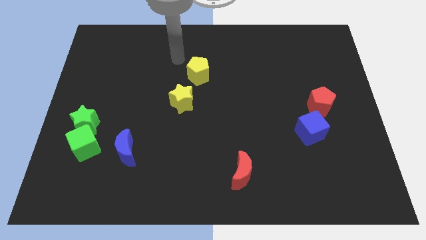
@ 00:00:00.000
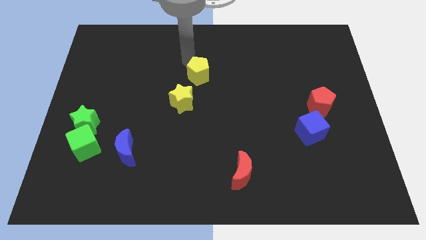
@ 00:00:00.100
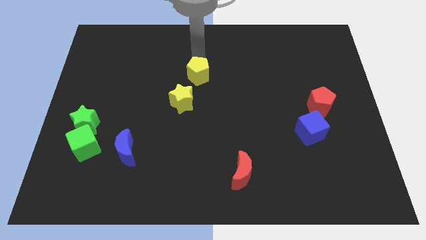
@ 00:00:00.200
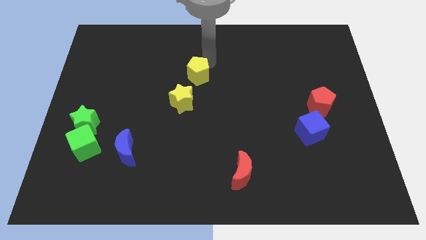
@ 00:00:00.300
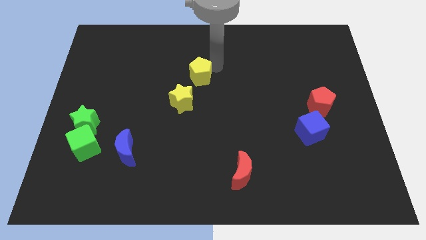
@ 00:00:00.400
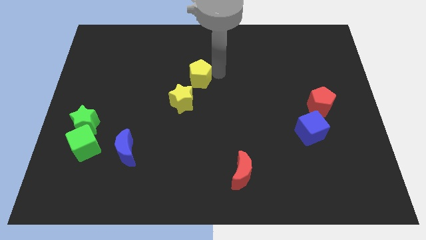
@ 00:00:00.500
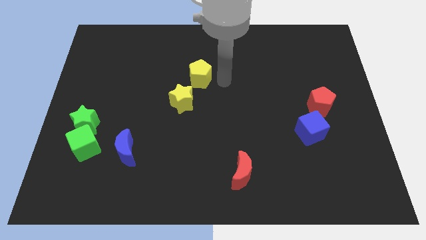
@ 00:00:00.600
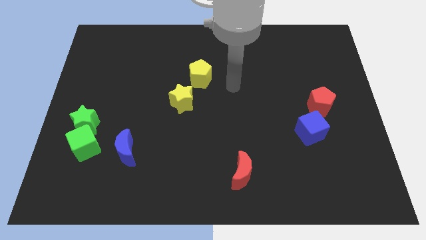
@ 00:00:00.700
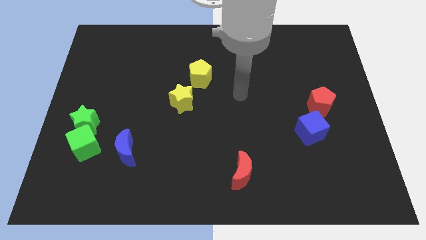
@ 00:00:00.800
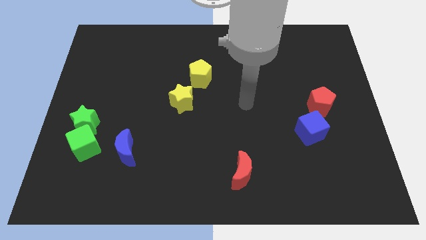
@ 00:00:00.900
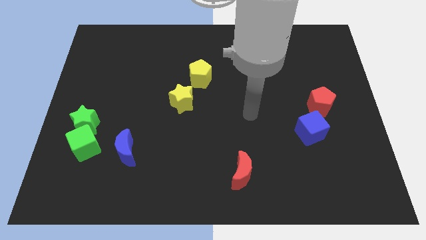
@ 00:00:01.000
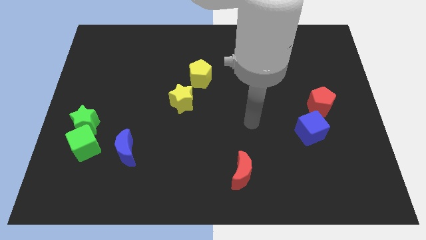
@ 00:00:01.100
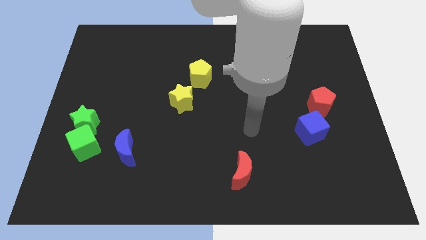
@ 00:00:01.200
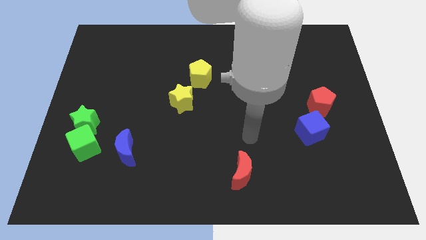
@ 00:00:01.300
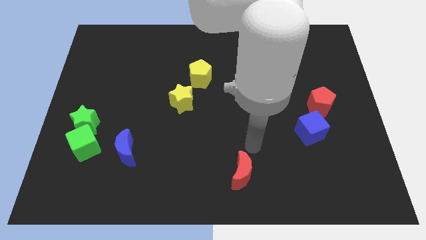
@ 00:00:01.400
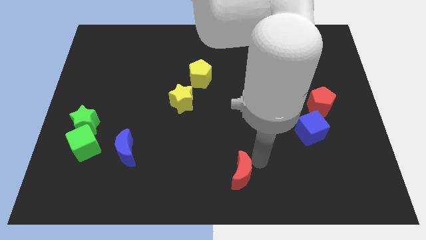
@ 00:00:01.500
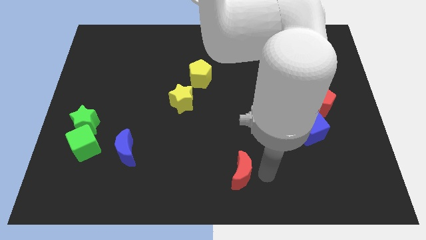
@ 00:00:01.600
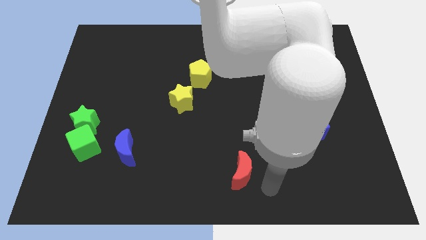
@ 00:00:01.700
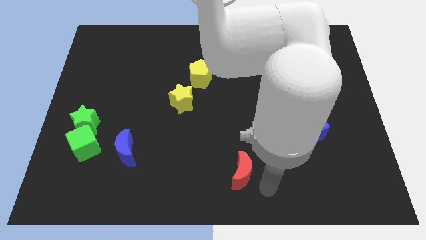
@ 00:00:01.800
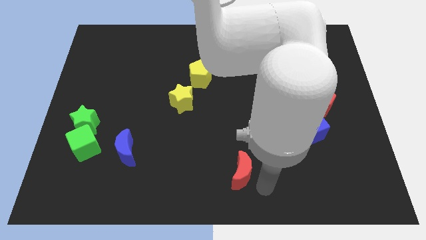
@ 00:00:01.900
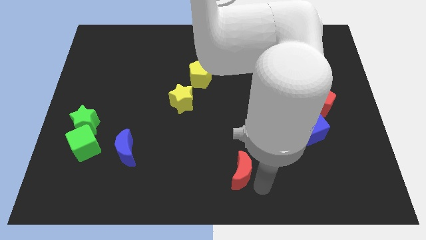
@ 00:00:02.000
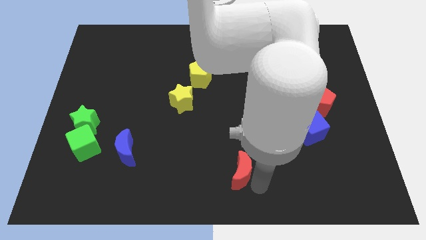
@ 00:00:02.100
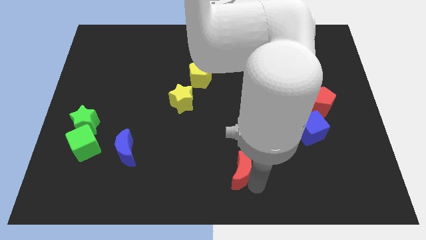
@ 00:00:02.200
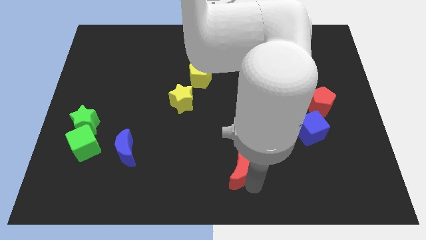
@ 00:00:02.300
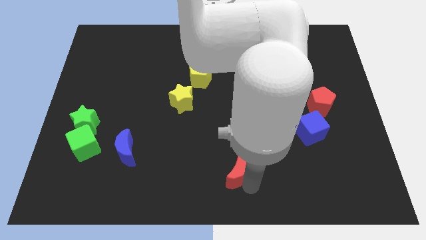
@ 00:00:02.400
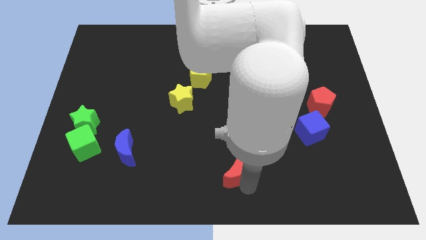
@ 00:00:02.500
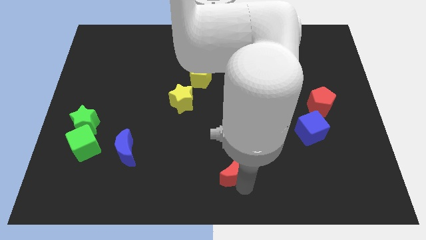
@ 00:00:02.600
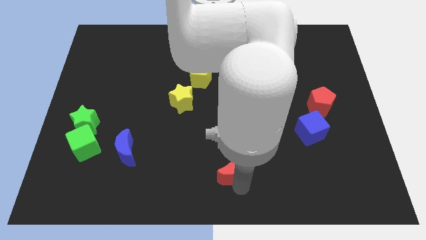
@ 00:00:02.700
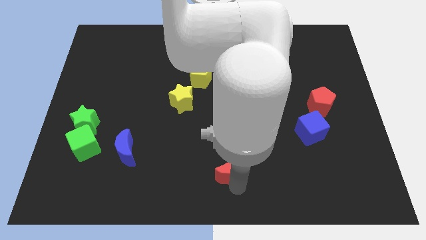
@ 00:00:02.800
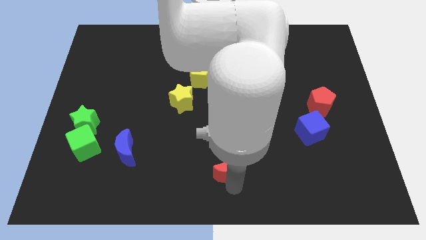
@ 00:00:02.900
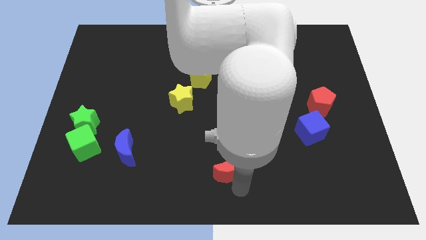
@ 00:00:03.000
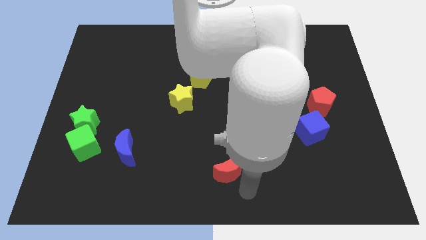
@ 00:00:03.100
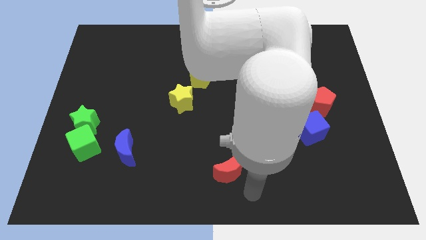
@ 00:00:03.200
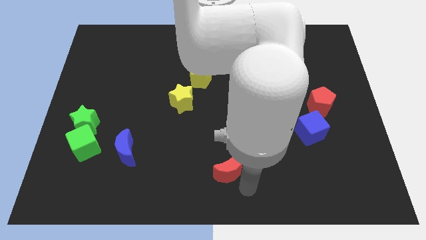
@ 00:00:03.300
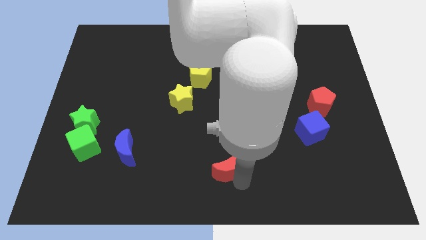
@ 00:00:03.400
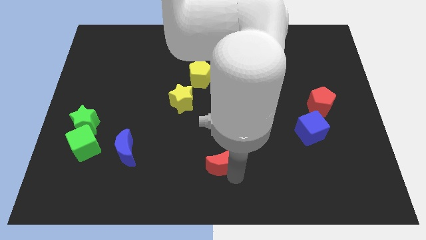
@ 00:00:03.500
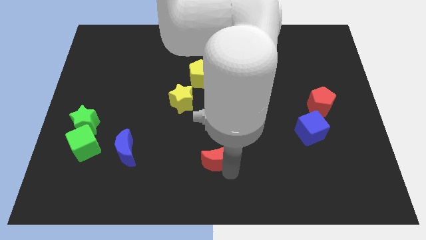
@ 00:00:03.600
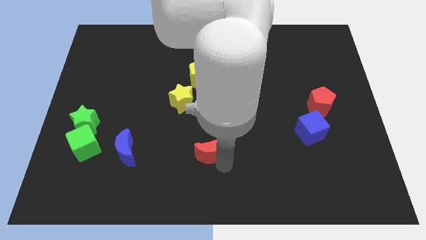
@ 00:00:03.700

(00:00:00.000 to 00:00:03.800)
move the red moon up and then left a bit

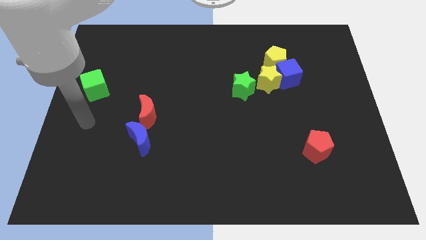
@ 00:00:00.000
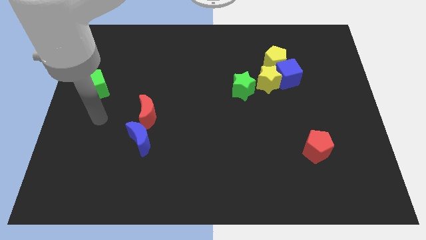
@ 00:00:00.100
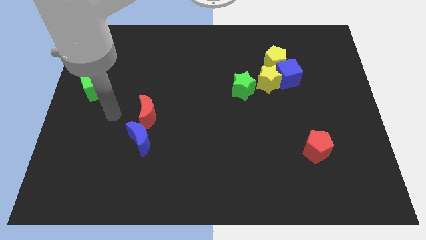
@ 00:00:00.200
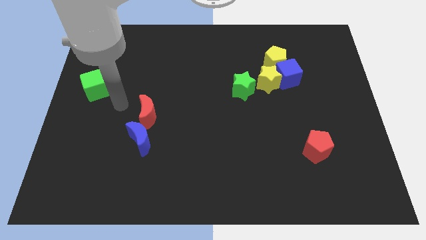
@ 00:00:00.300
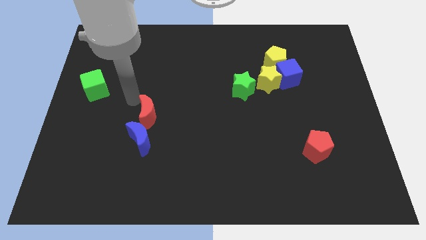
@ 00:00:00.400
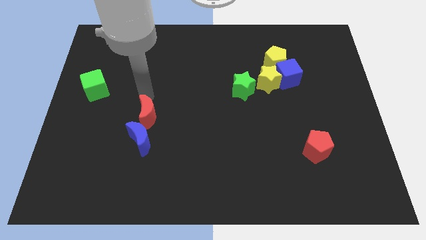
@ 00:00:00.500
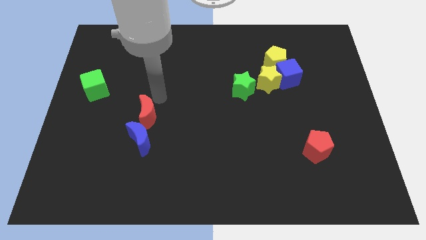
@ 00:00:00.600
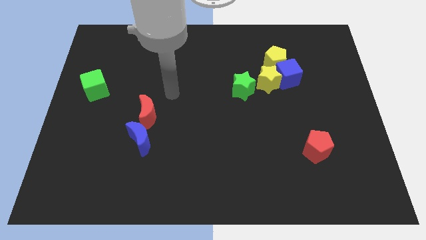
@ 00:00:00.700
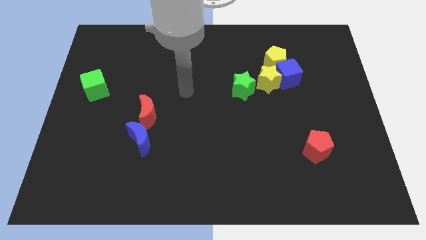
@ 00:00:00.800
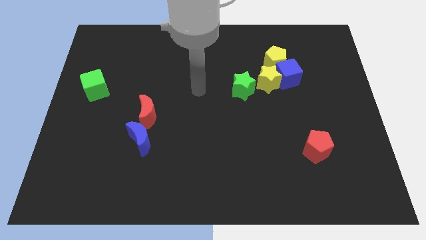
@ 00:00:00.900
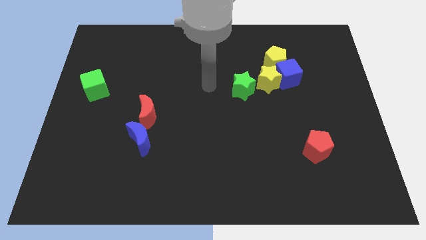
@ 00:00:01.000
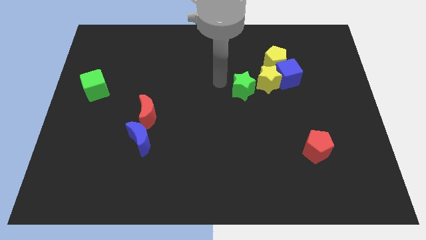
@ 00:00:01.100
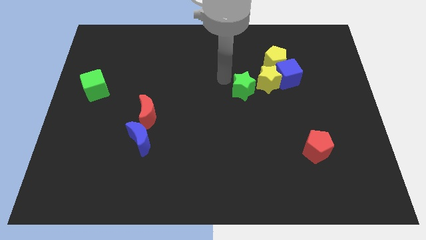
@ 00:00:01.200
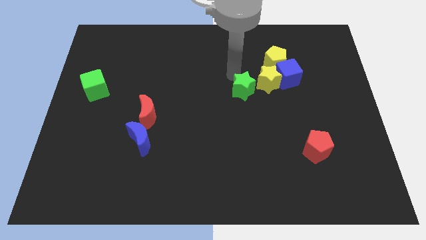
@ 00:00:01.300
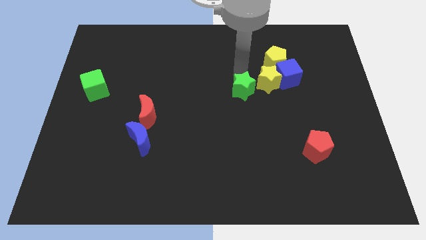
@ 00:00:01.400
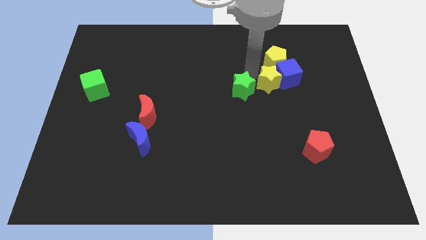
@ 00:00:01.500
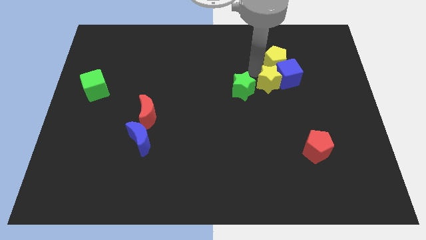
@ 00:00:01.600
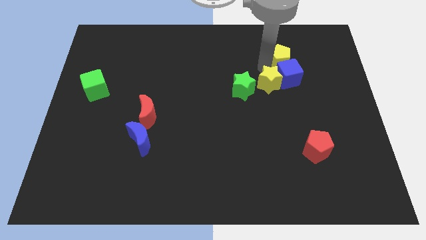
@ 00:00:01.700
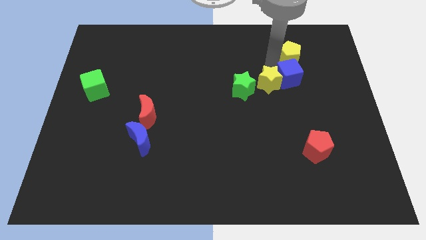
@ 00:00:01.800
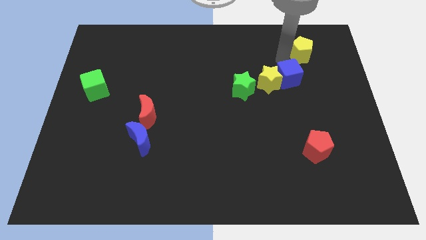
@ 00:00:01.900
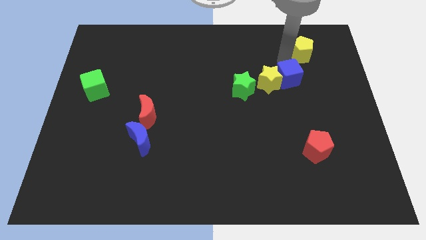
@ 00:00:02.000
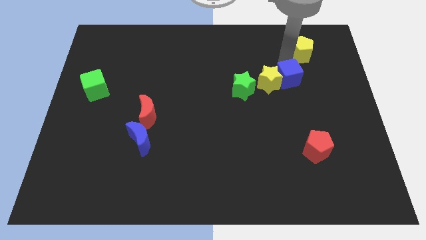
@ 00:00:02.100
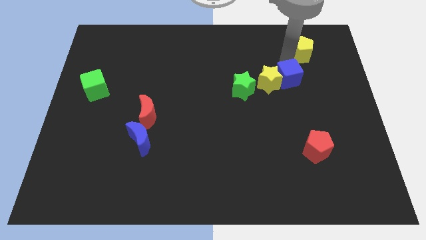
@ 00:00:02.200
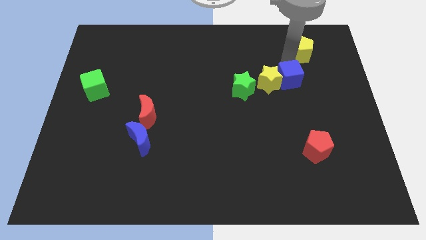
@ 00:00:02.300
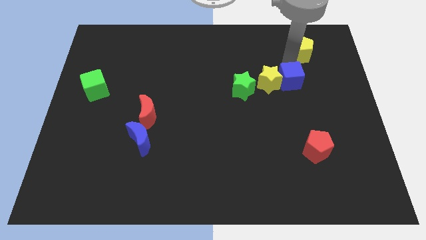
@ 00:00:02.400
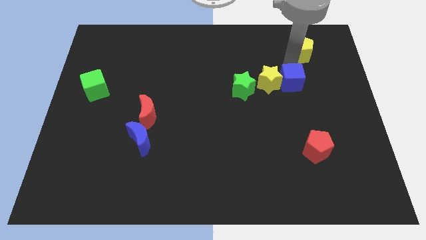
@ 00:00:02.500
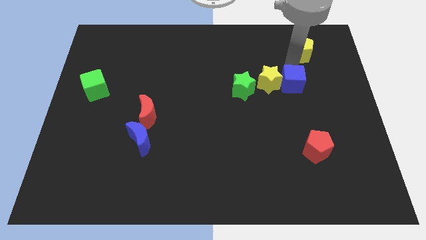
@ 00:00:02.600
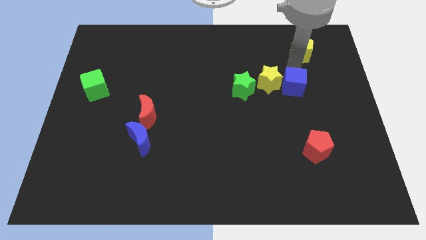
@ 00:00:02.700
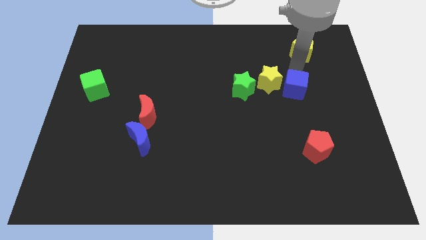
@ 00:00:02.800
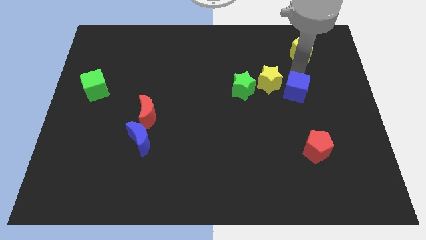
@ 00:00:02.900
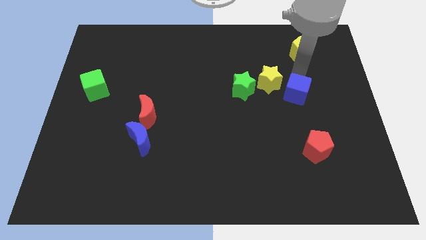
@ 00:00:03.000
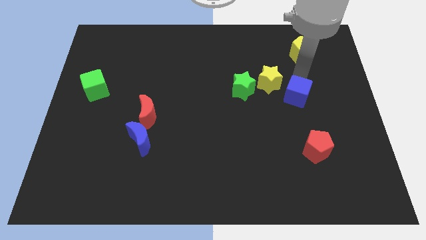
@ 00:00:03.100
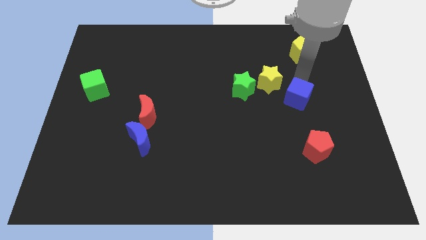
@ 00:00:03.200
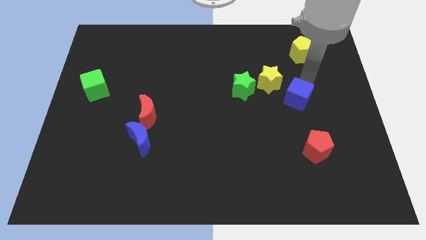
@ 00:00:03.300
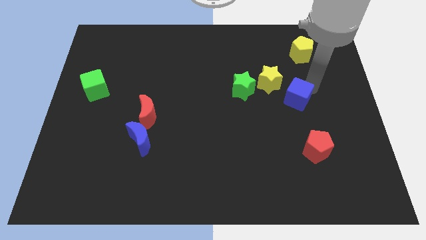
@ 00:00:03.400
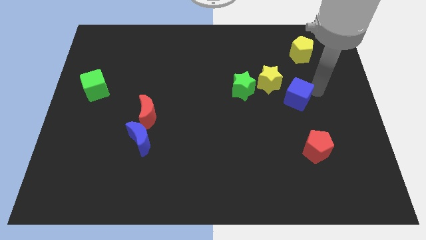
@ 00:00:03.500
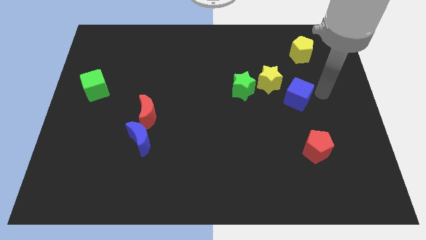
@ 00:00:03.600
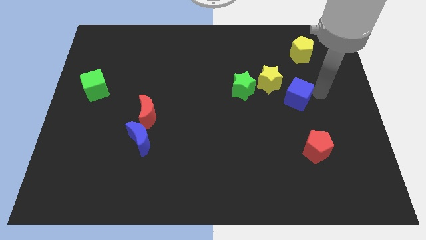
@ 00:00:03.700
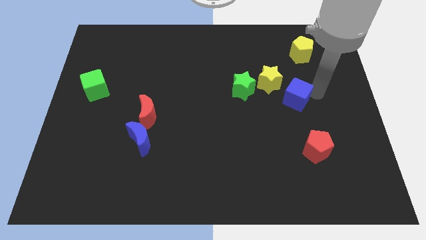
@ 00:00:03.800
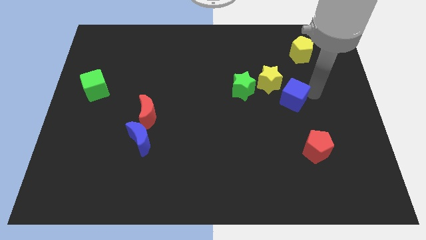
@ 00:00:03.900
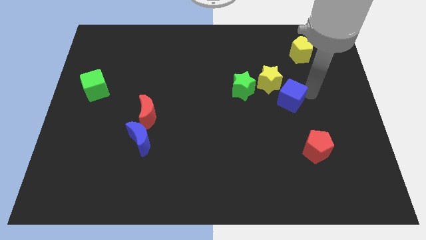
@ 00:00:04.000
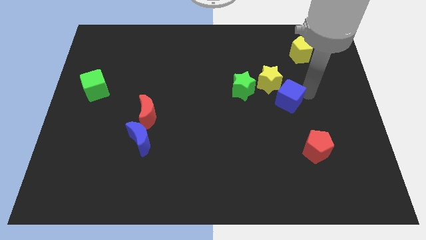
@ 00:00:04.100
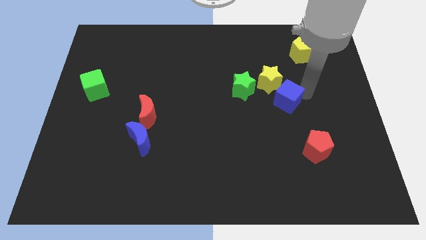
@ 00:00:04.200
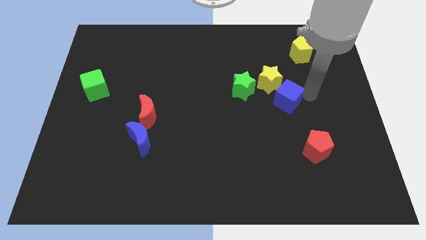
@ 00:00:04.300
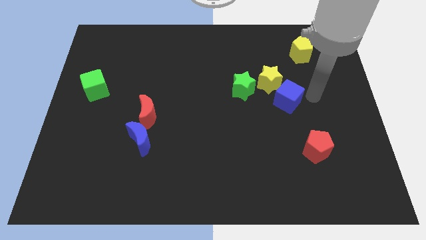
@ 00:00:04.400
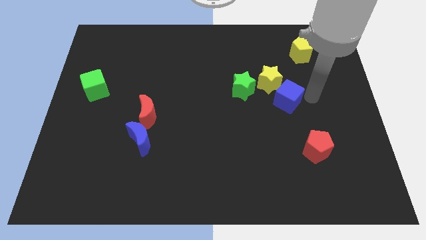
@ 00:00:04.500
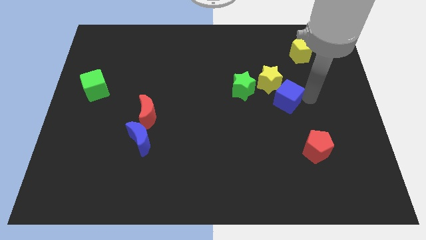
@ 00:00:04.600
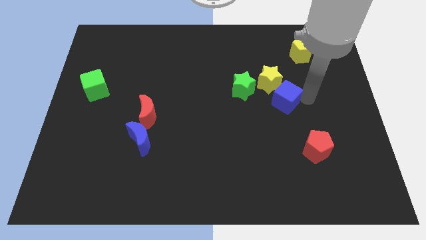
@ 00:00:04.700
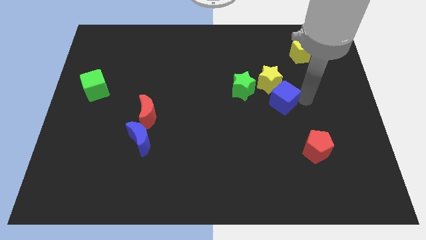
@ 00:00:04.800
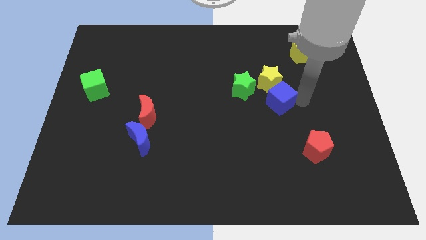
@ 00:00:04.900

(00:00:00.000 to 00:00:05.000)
slide the blue cube somewhat down and left diagonally
